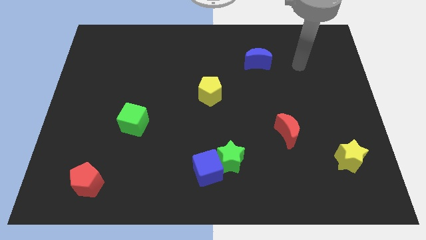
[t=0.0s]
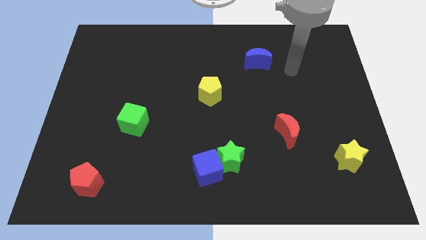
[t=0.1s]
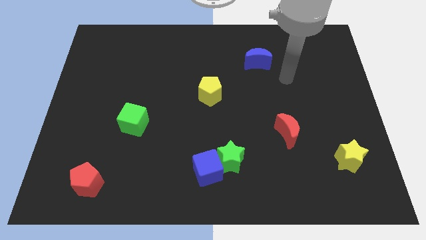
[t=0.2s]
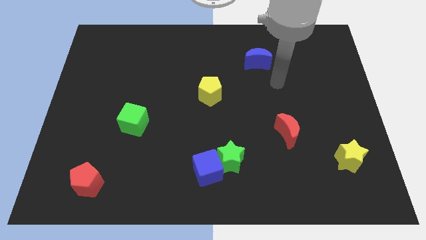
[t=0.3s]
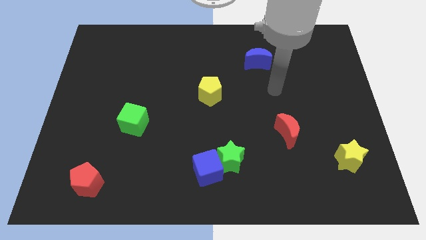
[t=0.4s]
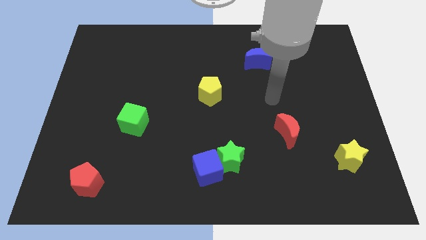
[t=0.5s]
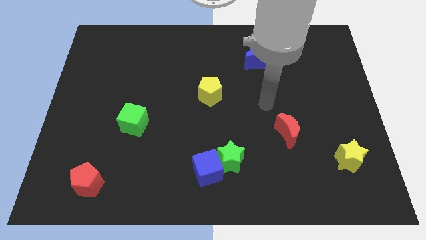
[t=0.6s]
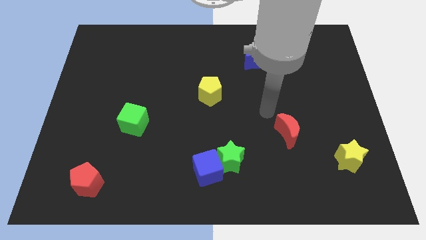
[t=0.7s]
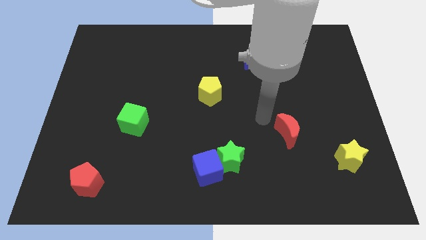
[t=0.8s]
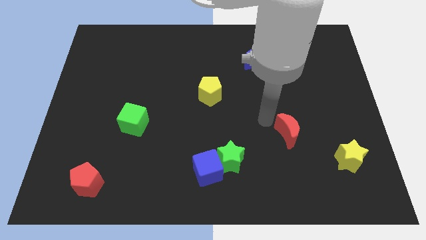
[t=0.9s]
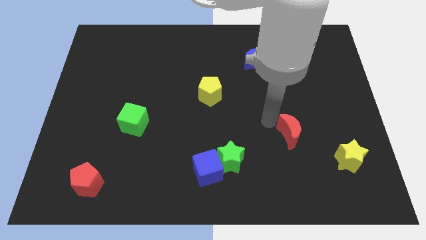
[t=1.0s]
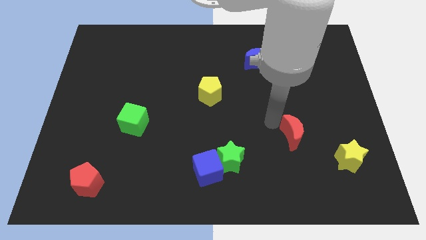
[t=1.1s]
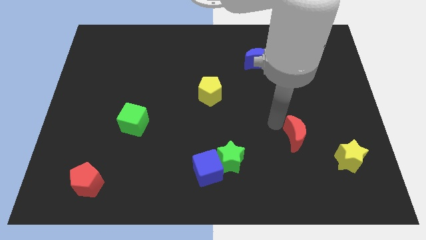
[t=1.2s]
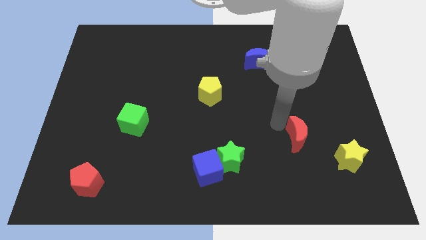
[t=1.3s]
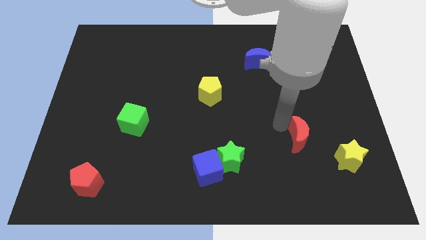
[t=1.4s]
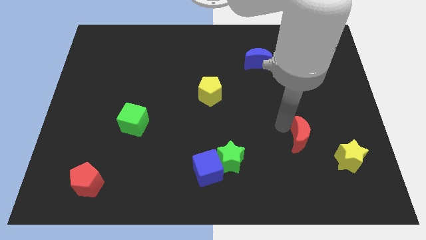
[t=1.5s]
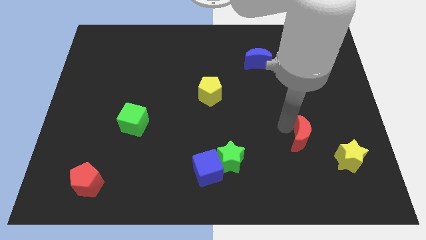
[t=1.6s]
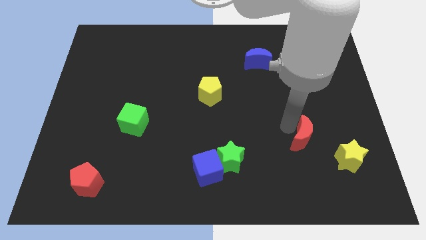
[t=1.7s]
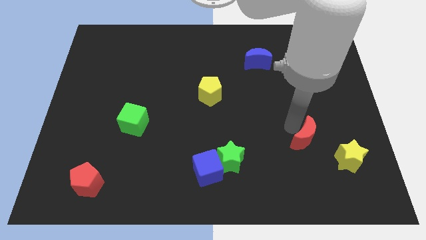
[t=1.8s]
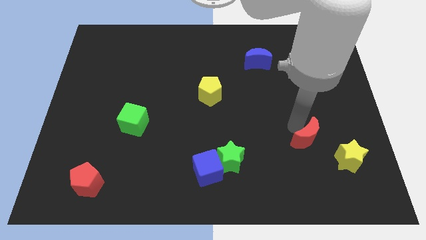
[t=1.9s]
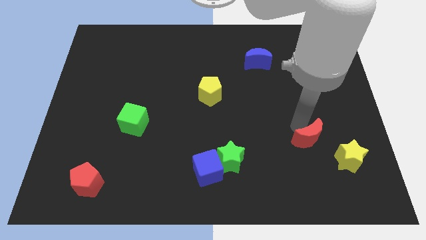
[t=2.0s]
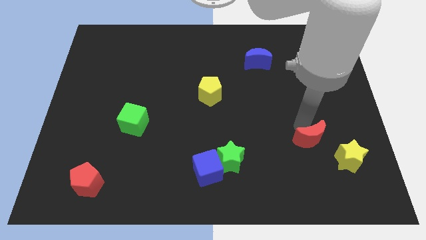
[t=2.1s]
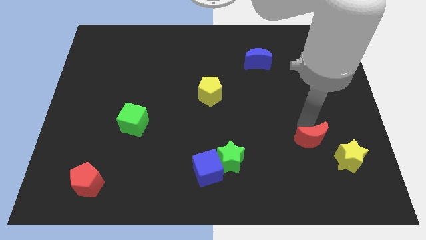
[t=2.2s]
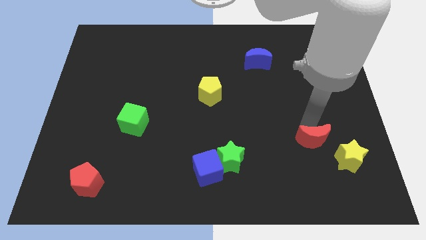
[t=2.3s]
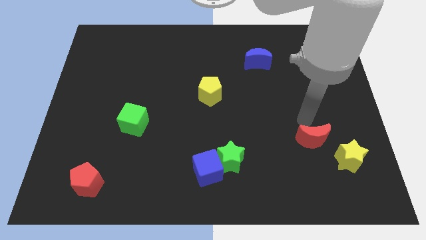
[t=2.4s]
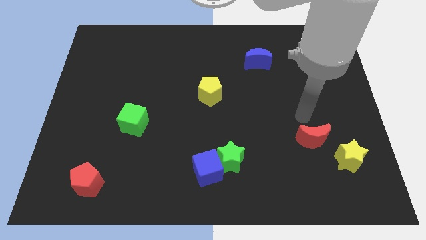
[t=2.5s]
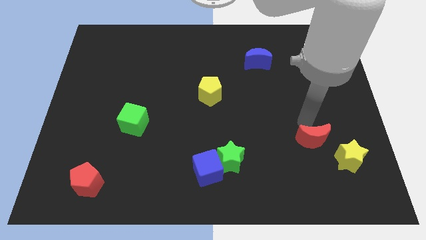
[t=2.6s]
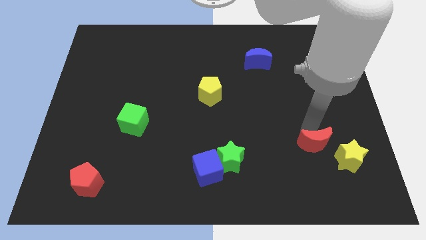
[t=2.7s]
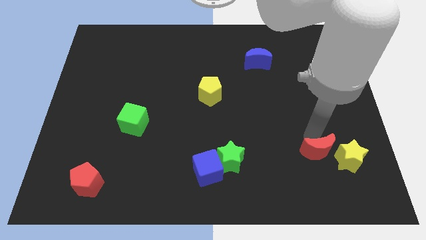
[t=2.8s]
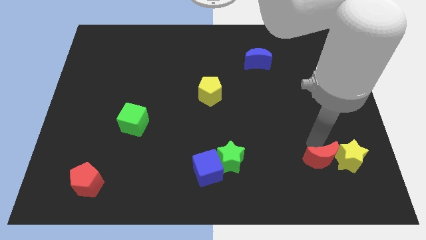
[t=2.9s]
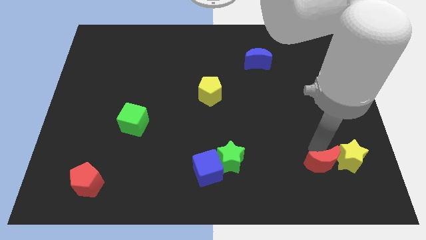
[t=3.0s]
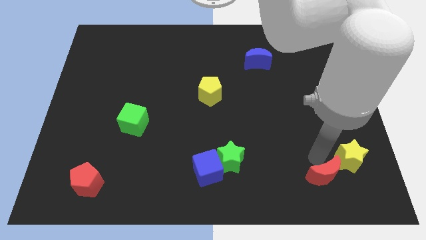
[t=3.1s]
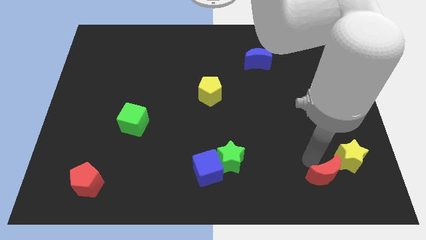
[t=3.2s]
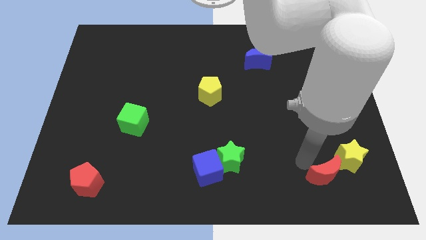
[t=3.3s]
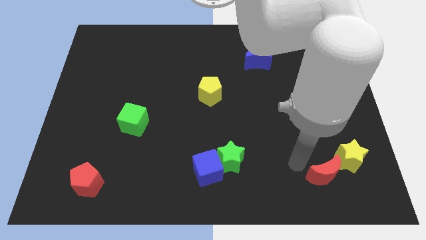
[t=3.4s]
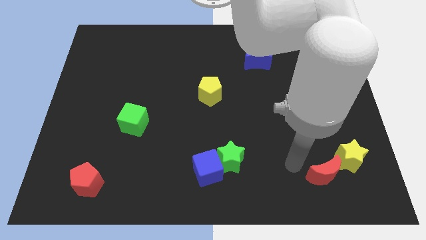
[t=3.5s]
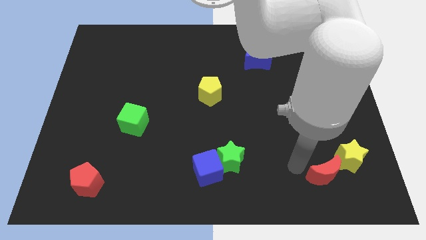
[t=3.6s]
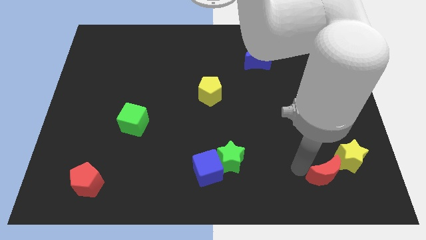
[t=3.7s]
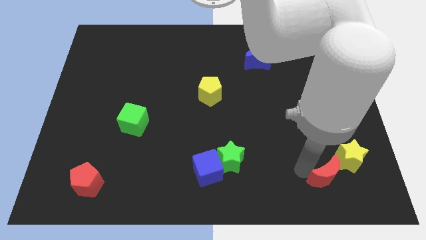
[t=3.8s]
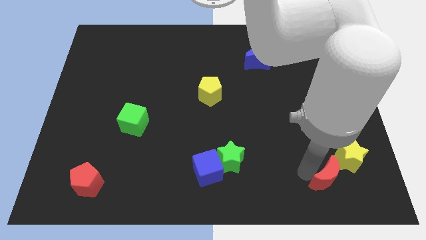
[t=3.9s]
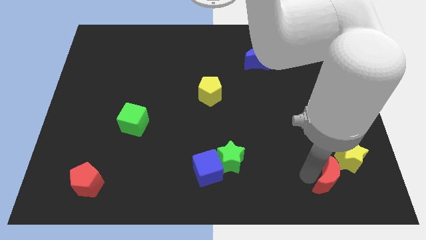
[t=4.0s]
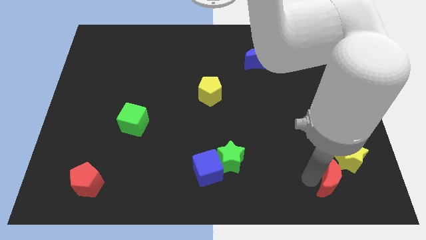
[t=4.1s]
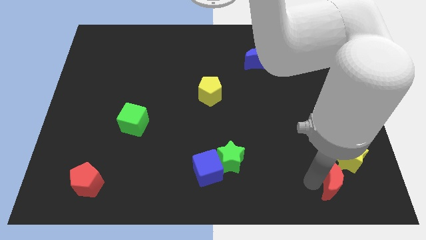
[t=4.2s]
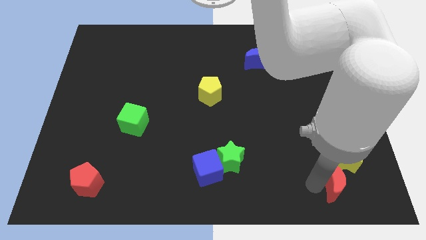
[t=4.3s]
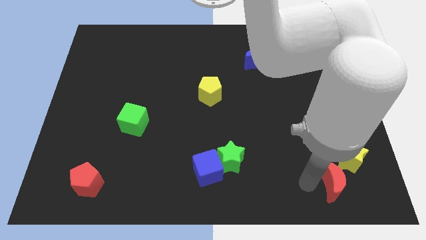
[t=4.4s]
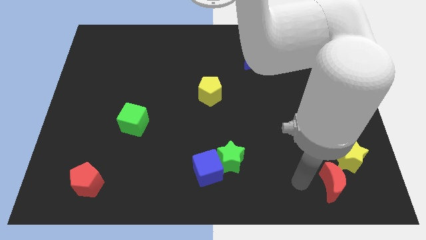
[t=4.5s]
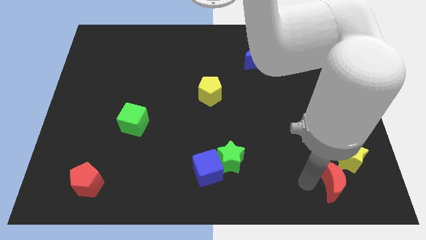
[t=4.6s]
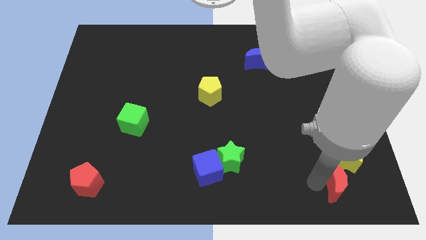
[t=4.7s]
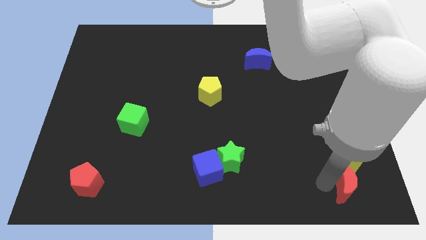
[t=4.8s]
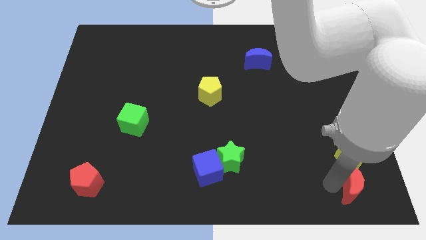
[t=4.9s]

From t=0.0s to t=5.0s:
push the red moon to the lower right corner

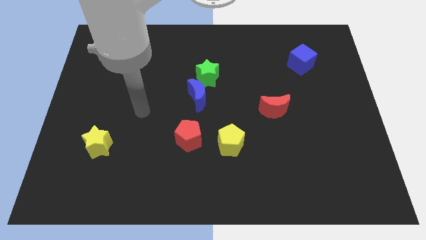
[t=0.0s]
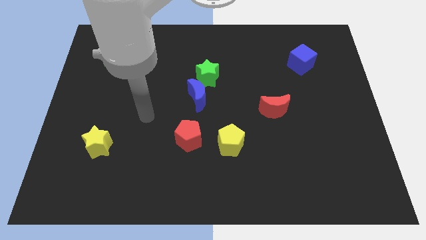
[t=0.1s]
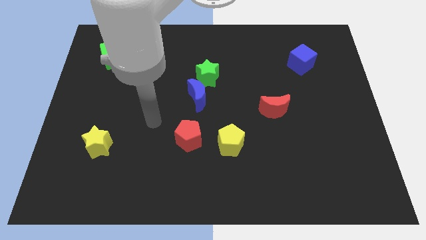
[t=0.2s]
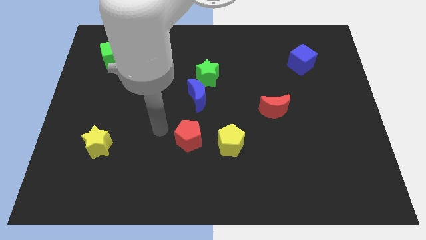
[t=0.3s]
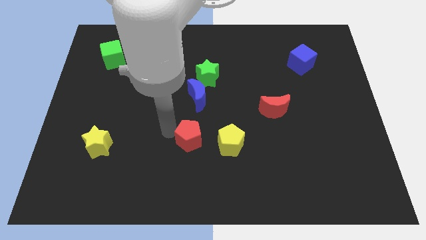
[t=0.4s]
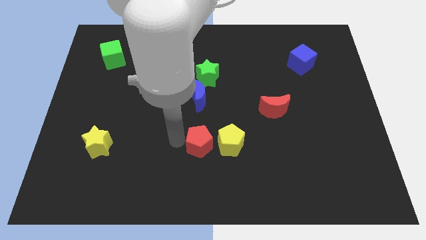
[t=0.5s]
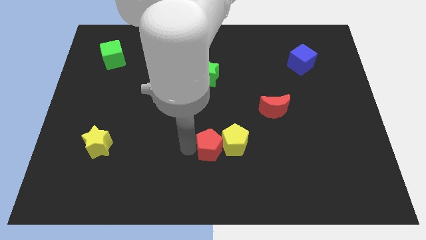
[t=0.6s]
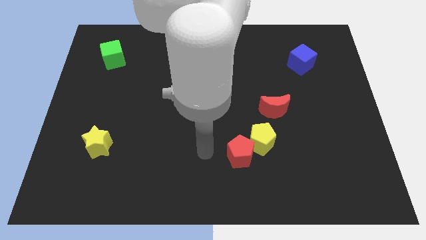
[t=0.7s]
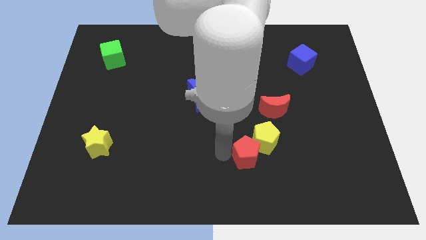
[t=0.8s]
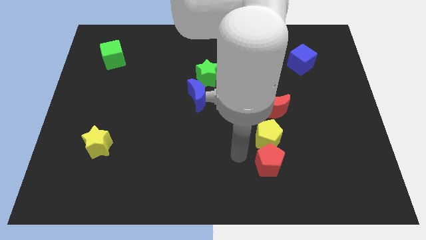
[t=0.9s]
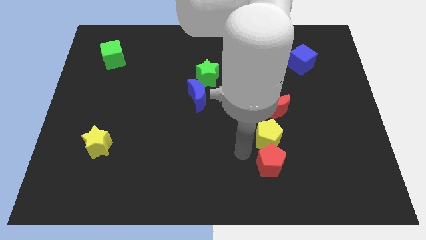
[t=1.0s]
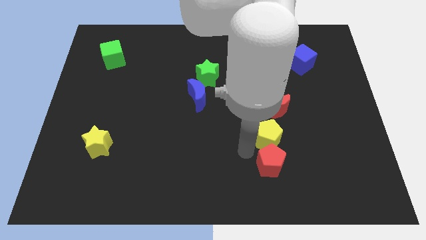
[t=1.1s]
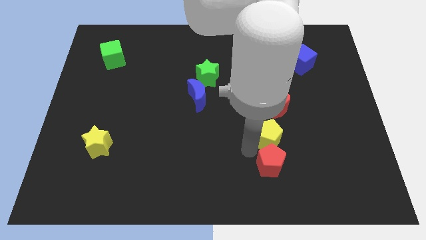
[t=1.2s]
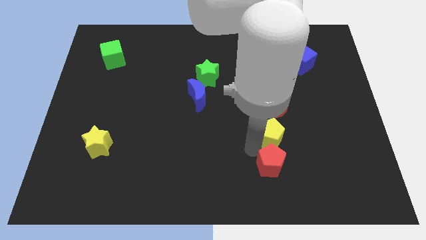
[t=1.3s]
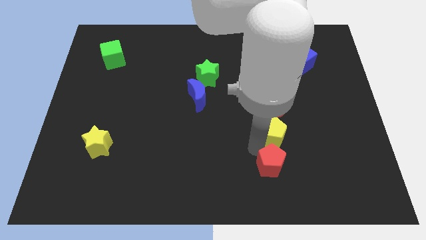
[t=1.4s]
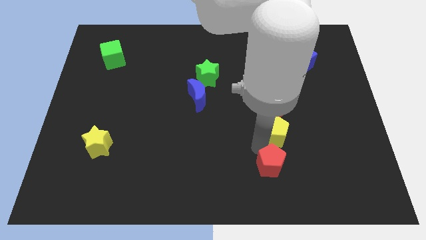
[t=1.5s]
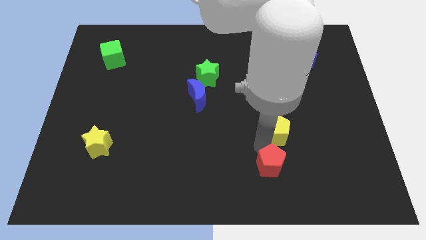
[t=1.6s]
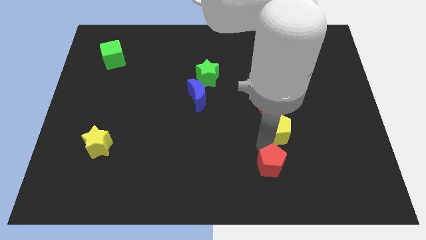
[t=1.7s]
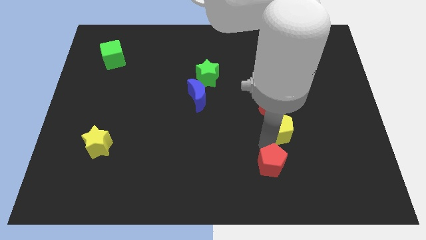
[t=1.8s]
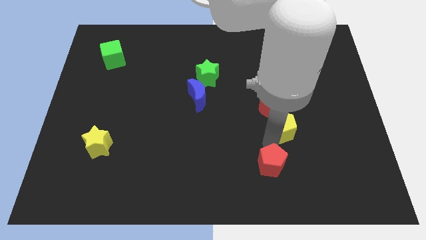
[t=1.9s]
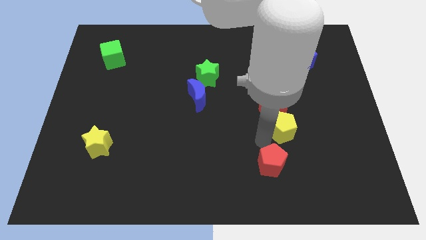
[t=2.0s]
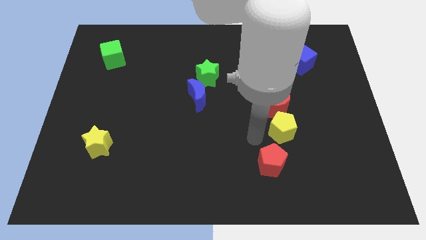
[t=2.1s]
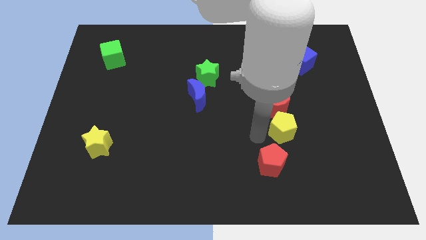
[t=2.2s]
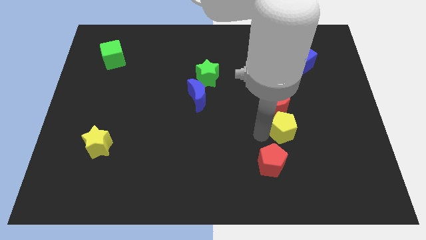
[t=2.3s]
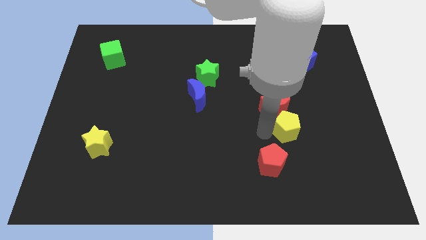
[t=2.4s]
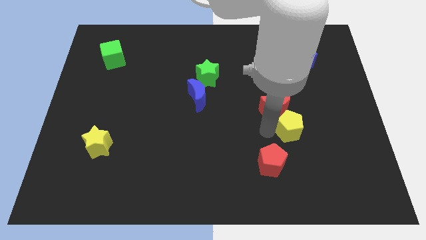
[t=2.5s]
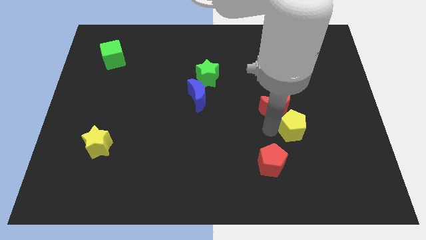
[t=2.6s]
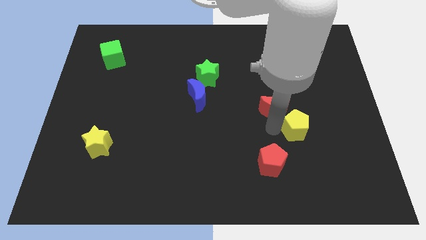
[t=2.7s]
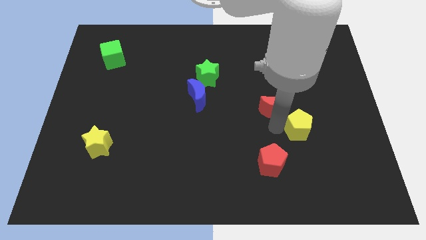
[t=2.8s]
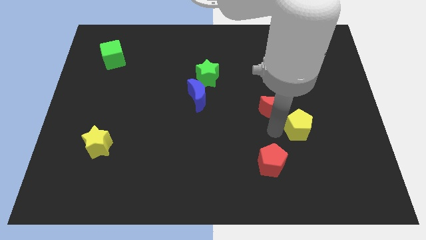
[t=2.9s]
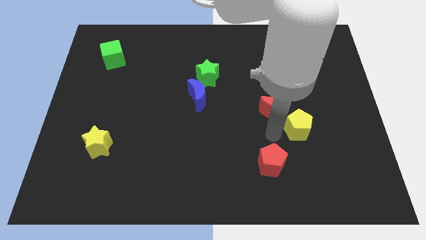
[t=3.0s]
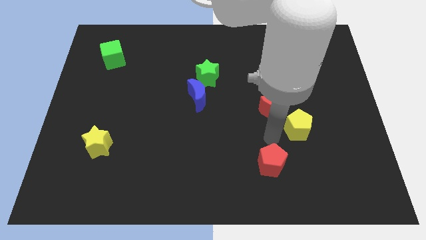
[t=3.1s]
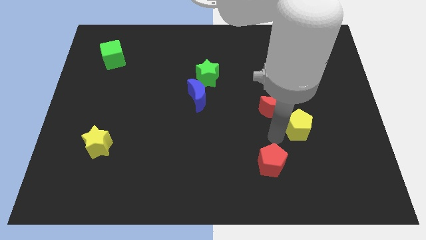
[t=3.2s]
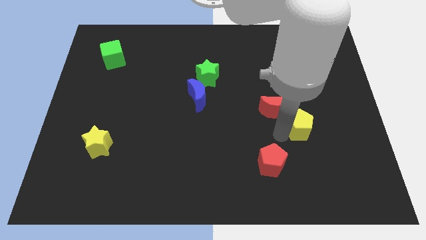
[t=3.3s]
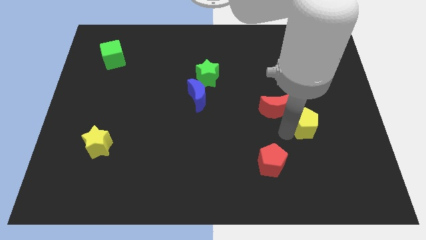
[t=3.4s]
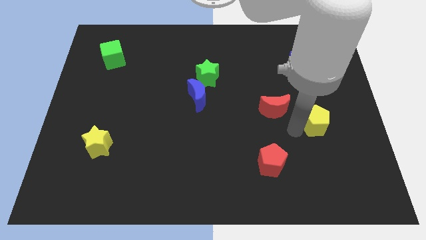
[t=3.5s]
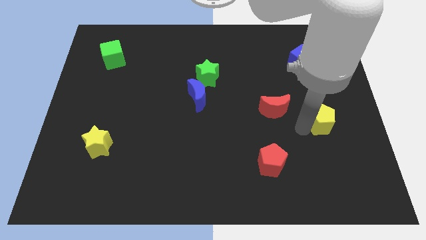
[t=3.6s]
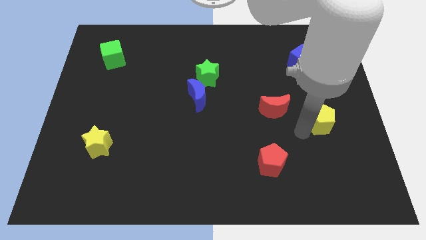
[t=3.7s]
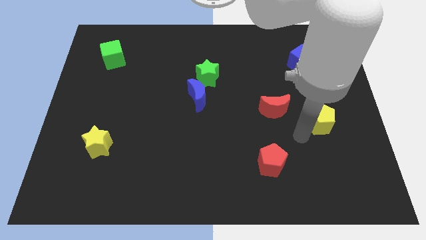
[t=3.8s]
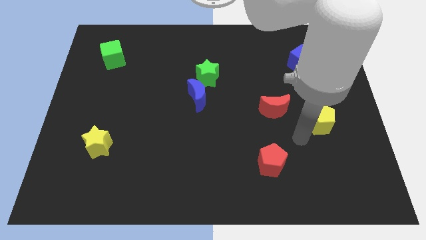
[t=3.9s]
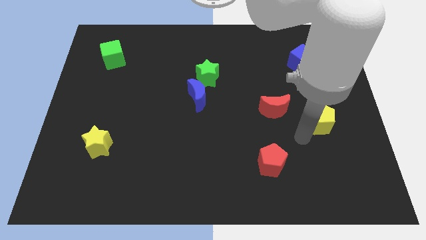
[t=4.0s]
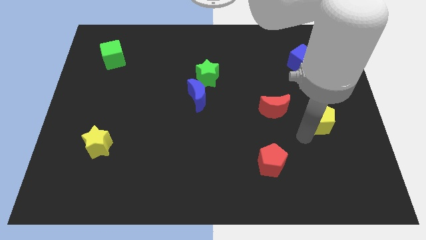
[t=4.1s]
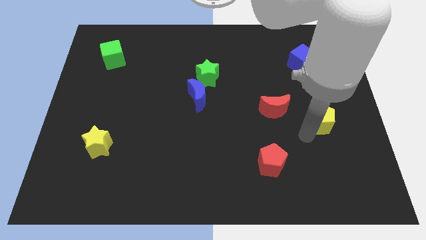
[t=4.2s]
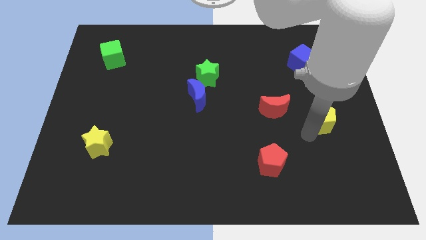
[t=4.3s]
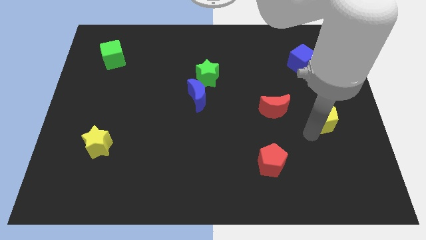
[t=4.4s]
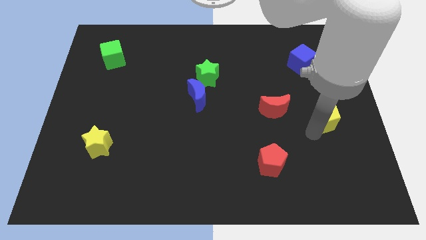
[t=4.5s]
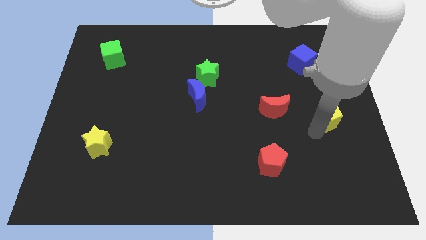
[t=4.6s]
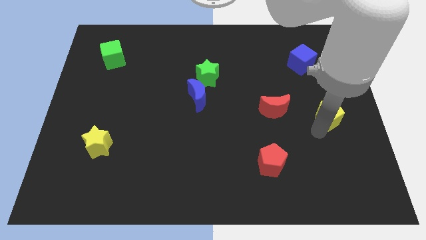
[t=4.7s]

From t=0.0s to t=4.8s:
push the yellow pentagon to the right side of the board
